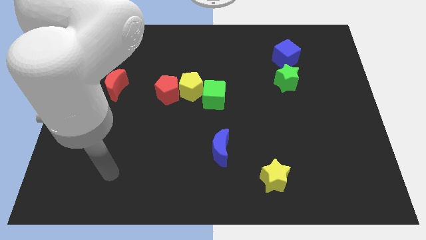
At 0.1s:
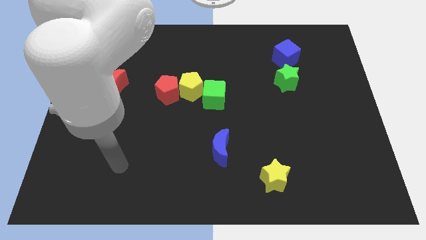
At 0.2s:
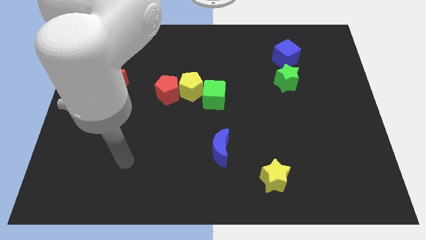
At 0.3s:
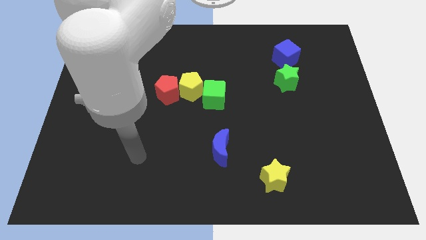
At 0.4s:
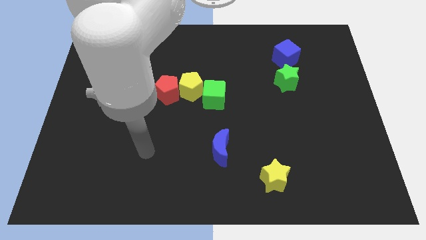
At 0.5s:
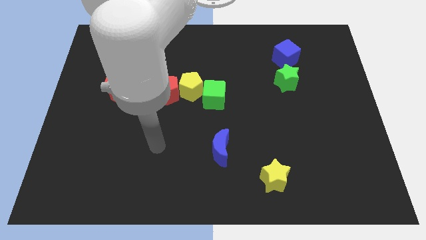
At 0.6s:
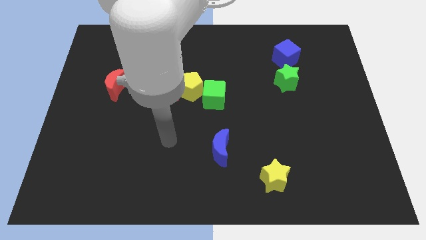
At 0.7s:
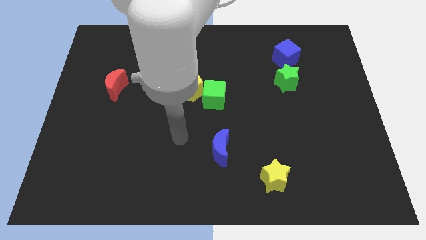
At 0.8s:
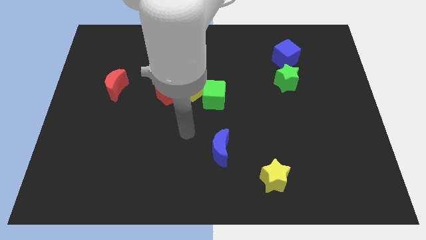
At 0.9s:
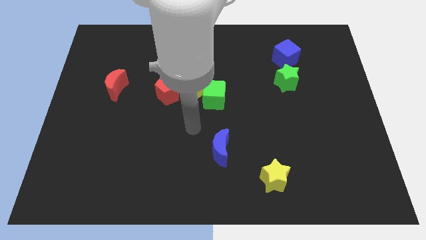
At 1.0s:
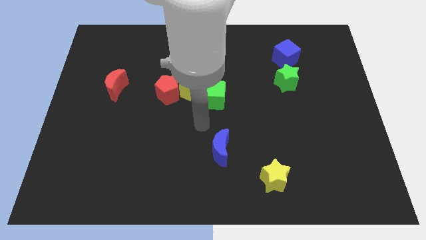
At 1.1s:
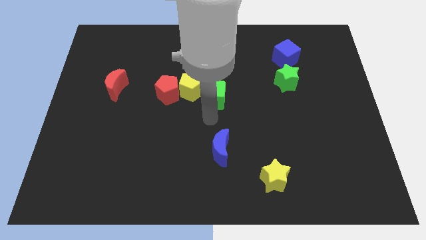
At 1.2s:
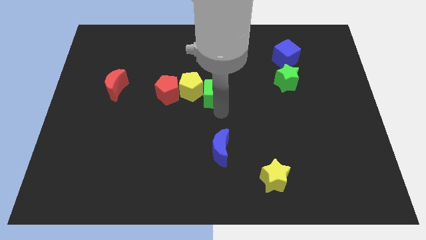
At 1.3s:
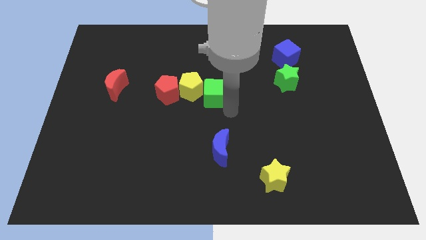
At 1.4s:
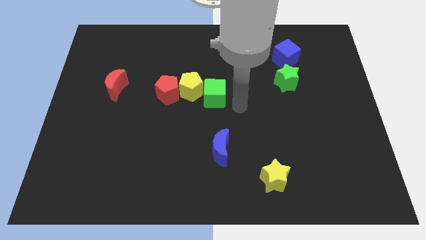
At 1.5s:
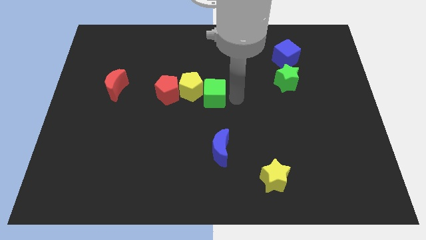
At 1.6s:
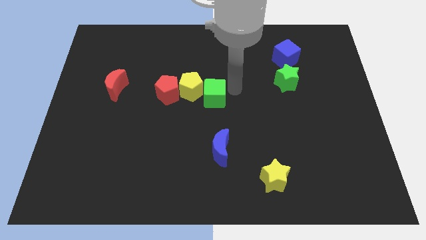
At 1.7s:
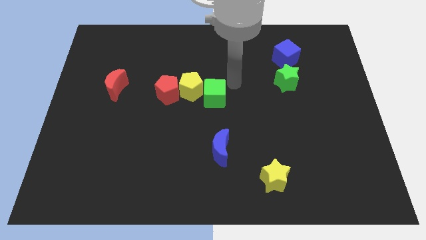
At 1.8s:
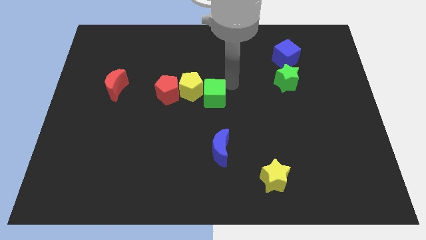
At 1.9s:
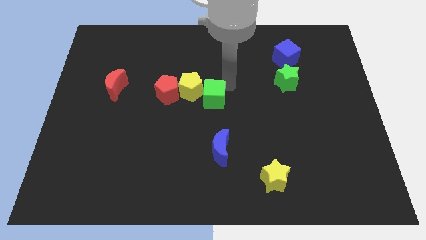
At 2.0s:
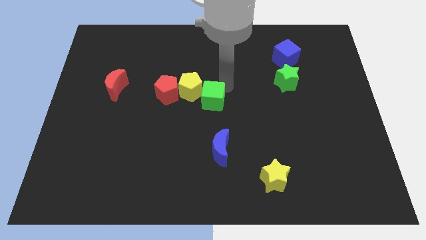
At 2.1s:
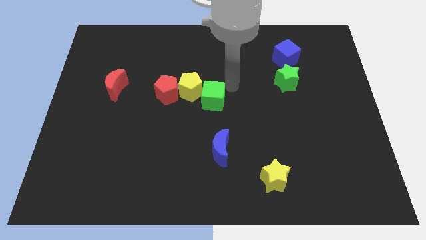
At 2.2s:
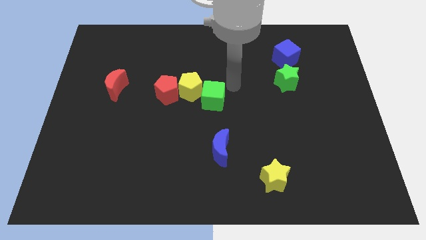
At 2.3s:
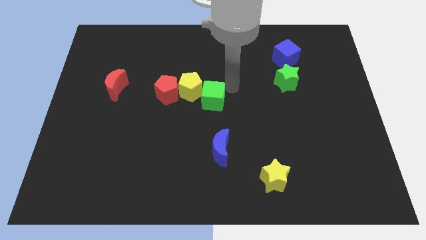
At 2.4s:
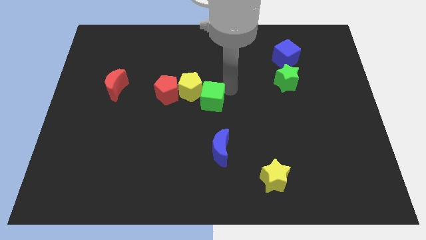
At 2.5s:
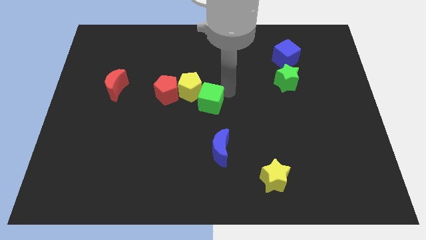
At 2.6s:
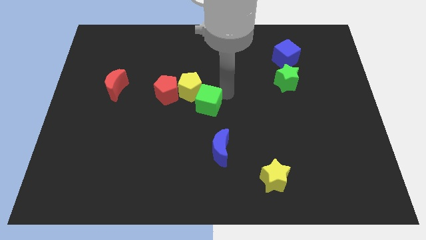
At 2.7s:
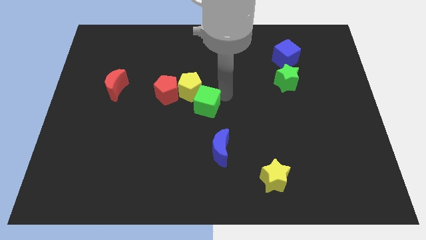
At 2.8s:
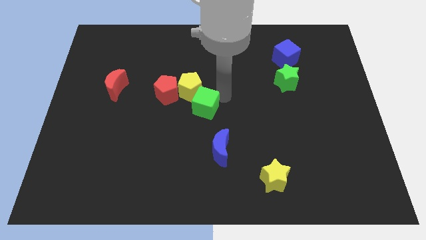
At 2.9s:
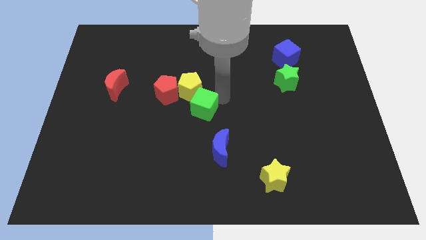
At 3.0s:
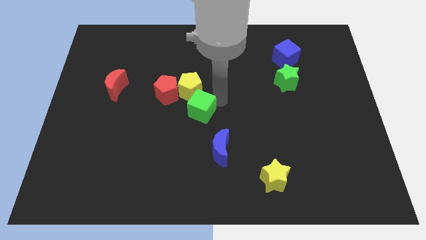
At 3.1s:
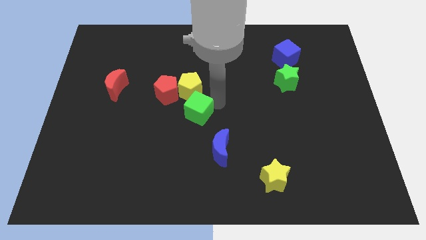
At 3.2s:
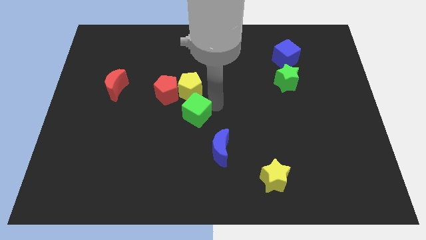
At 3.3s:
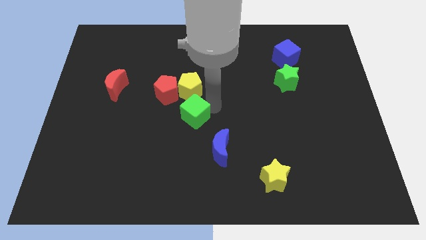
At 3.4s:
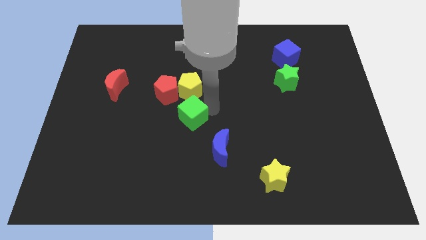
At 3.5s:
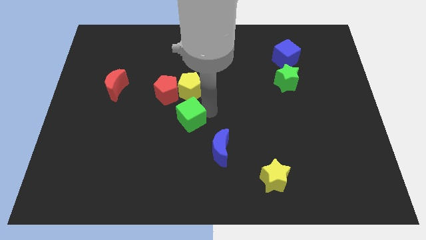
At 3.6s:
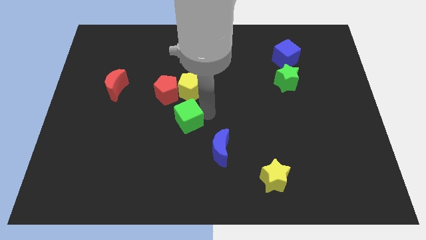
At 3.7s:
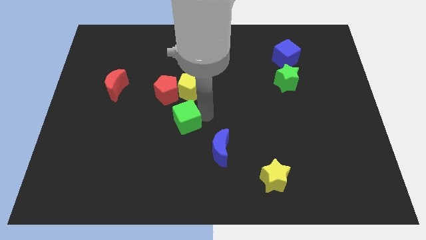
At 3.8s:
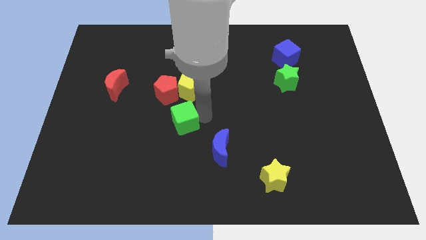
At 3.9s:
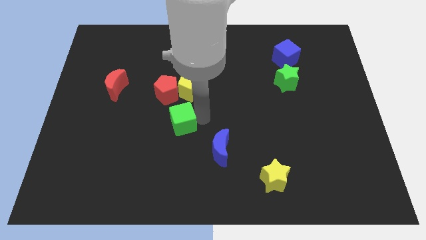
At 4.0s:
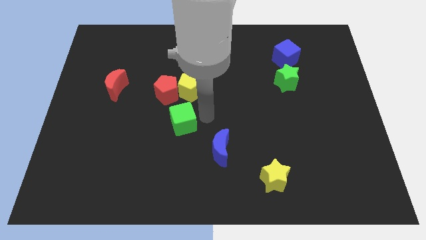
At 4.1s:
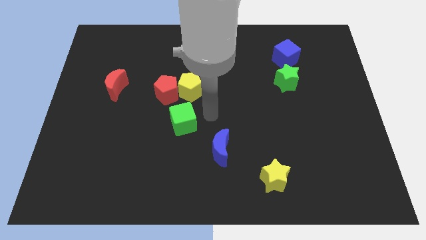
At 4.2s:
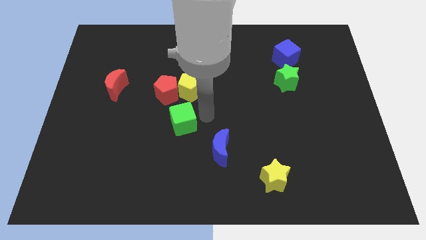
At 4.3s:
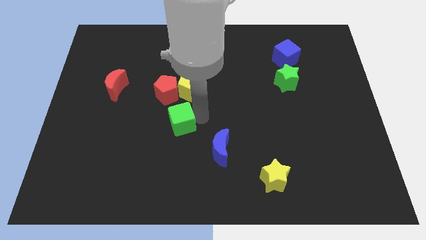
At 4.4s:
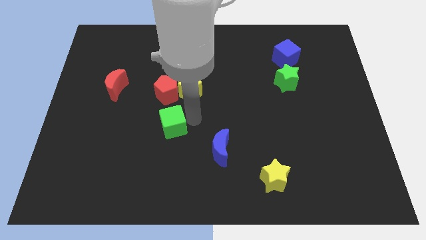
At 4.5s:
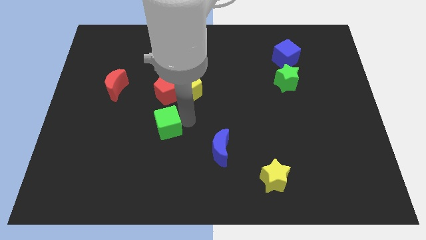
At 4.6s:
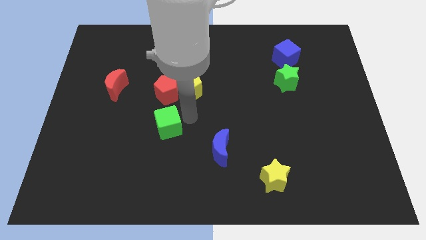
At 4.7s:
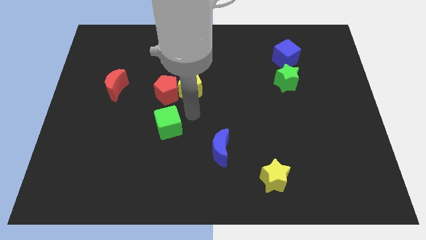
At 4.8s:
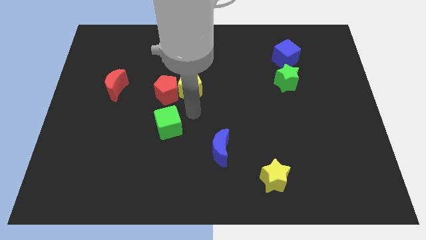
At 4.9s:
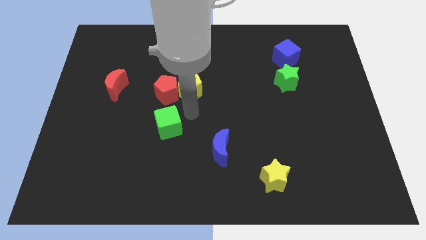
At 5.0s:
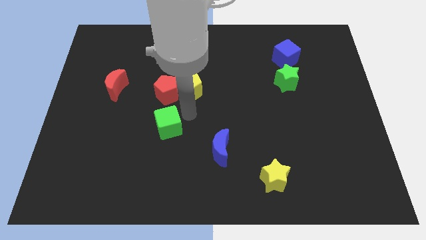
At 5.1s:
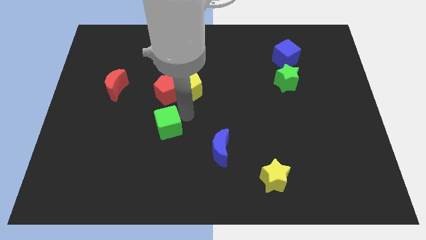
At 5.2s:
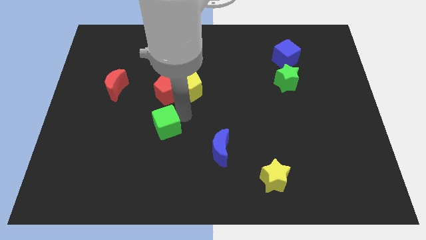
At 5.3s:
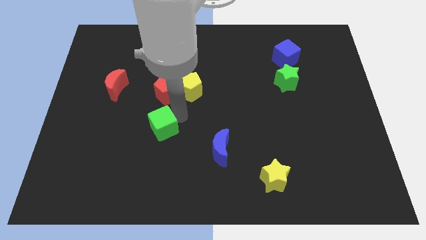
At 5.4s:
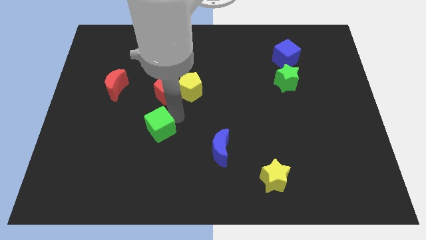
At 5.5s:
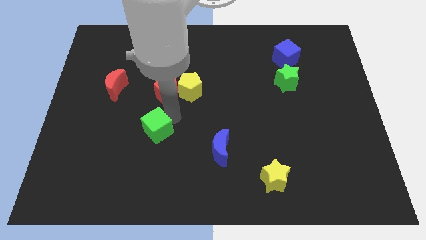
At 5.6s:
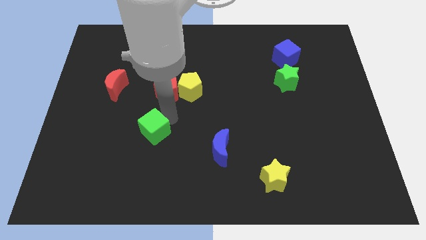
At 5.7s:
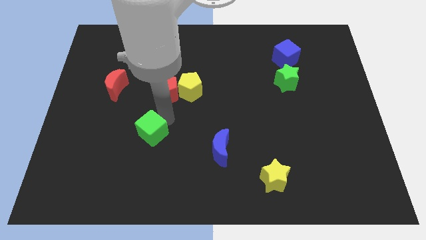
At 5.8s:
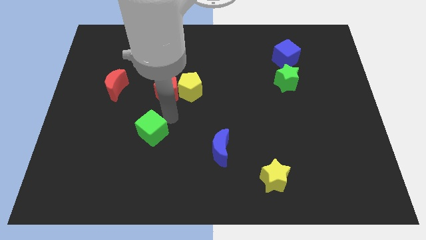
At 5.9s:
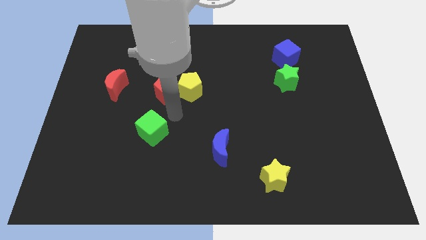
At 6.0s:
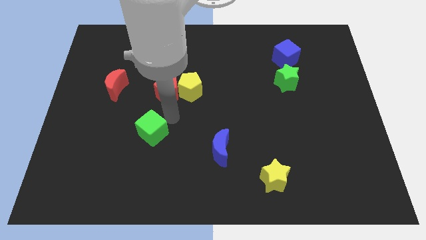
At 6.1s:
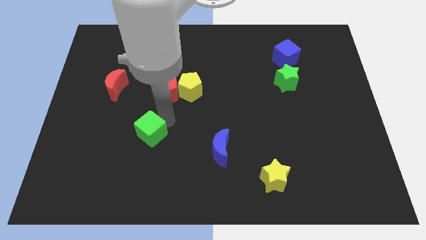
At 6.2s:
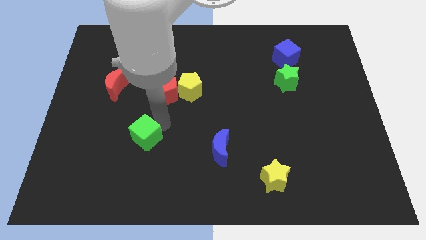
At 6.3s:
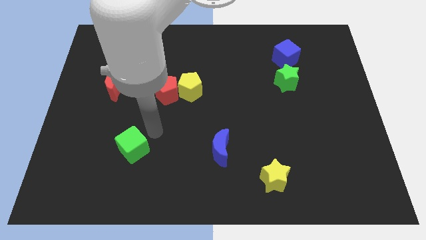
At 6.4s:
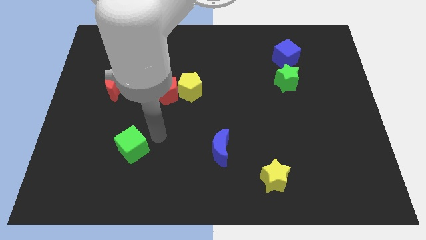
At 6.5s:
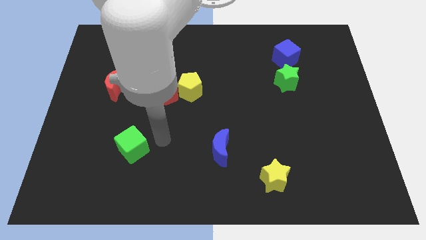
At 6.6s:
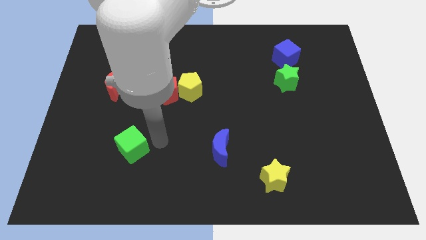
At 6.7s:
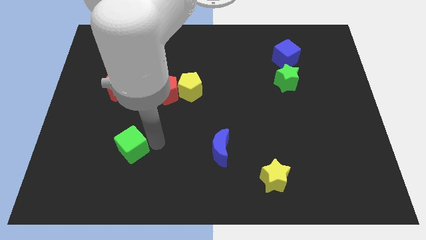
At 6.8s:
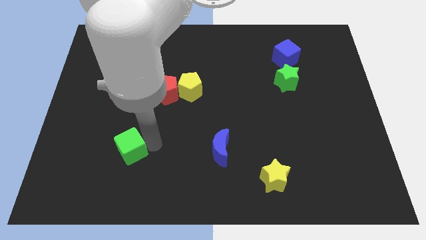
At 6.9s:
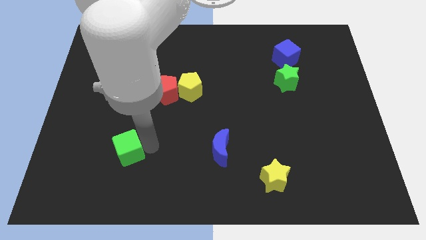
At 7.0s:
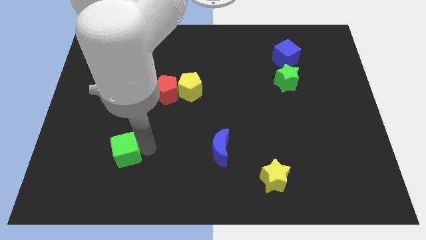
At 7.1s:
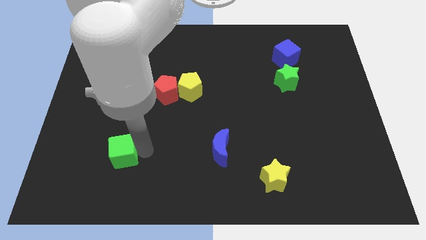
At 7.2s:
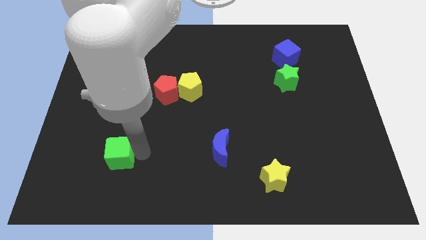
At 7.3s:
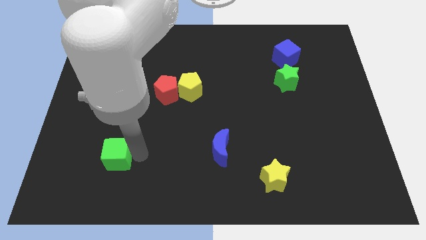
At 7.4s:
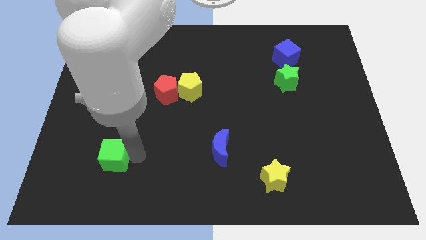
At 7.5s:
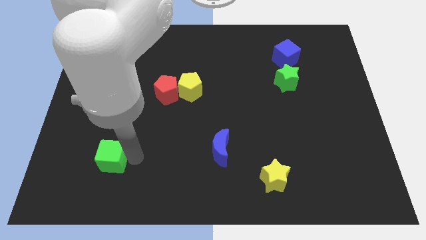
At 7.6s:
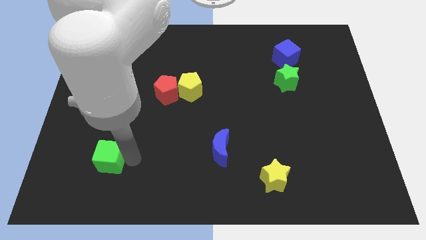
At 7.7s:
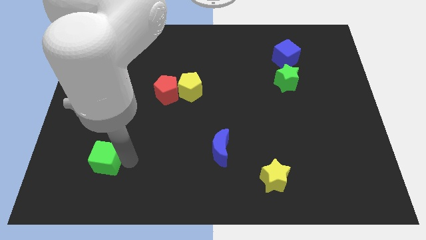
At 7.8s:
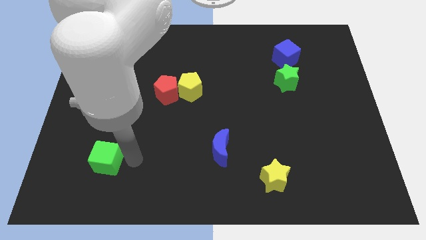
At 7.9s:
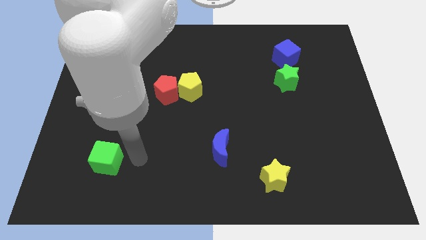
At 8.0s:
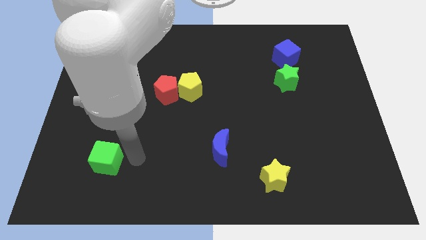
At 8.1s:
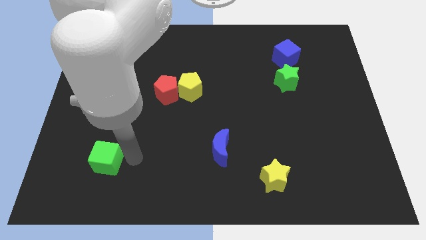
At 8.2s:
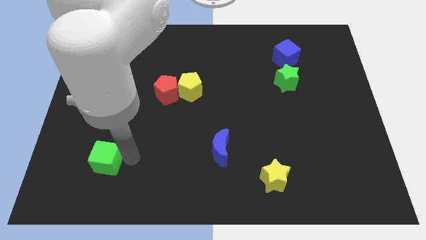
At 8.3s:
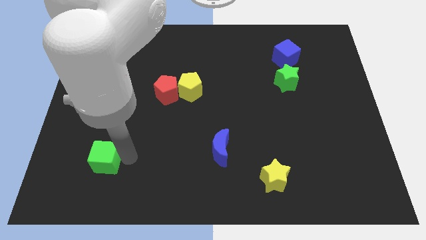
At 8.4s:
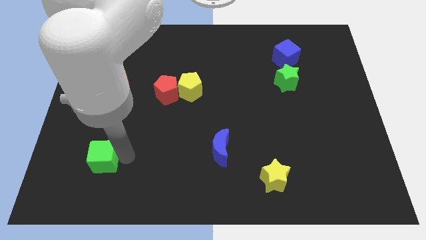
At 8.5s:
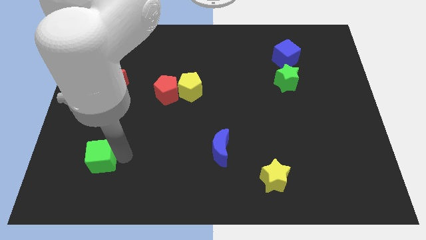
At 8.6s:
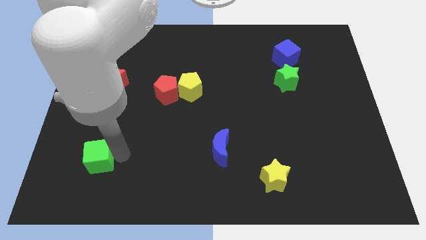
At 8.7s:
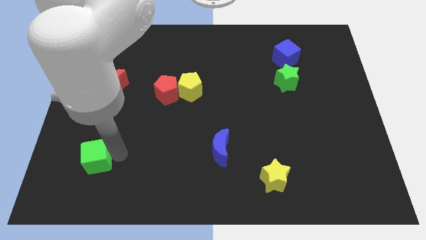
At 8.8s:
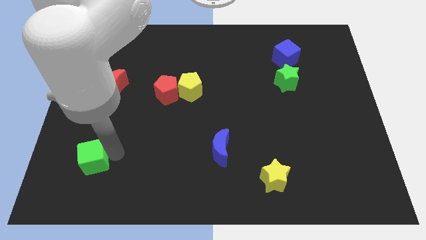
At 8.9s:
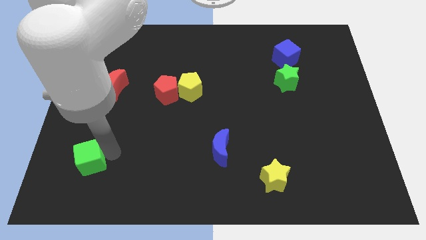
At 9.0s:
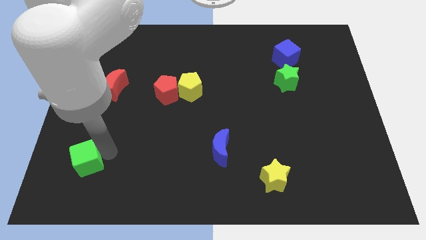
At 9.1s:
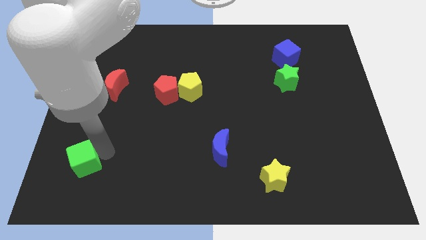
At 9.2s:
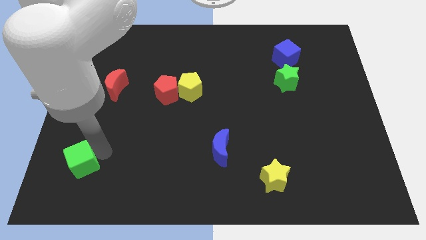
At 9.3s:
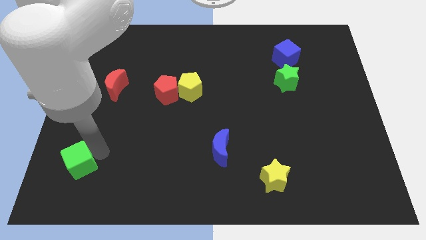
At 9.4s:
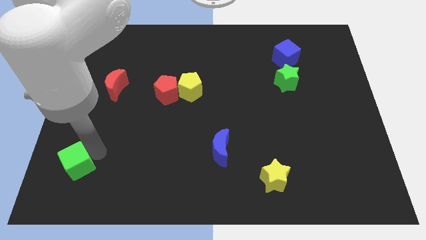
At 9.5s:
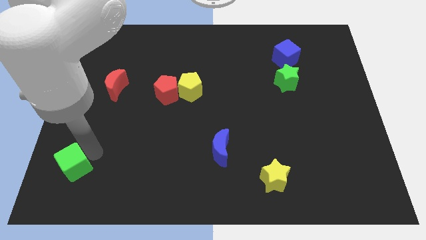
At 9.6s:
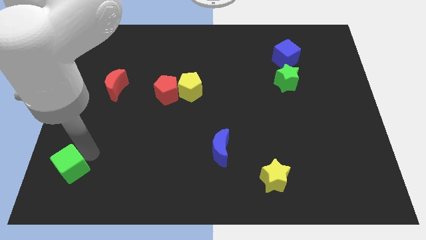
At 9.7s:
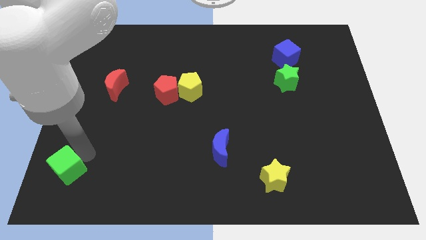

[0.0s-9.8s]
put the green cube to the lower left corner
